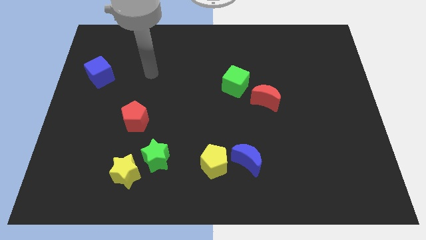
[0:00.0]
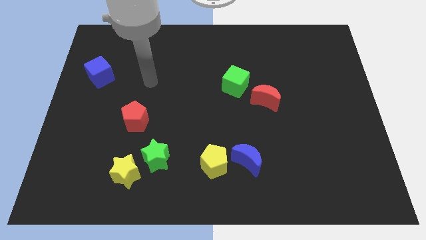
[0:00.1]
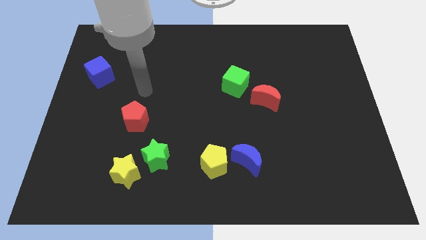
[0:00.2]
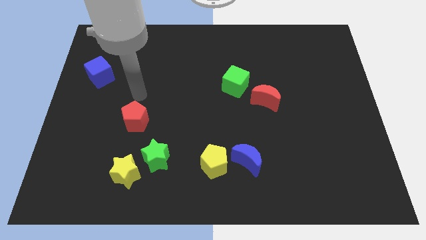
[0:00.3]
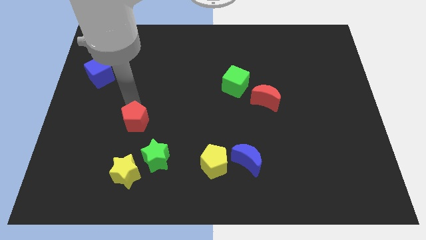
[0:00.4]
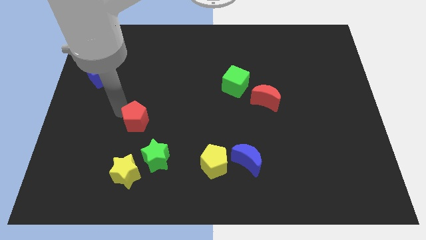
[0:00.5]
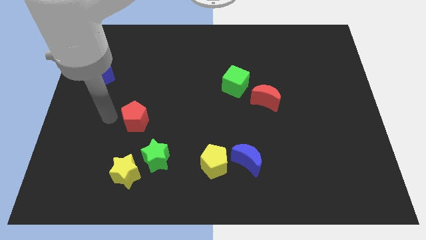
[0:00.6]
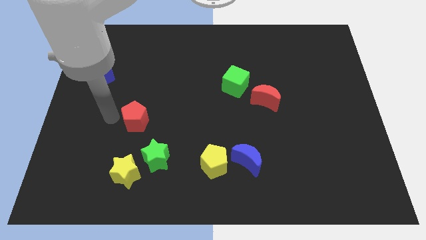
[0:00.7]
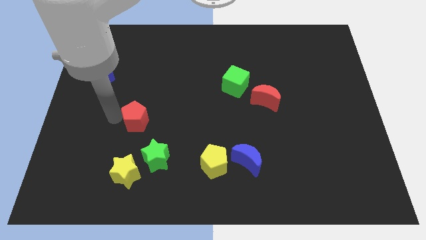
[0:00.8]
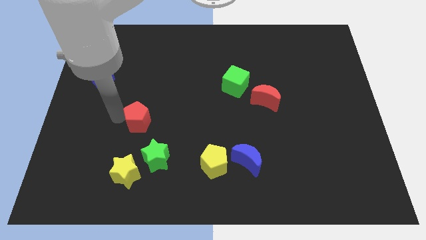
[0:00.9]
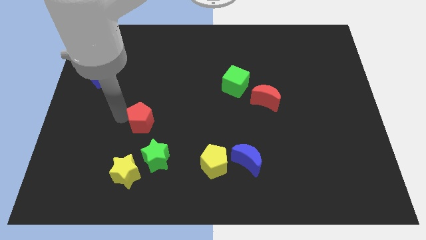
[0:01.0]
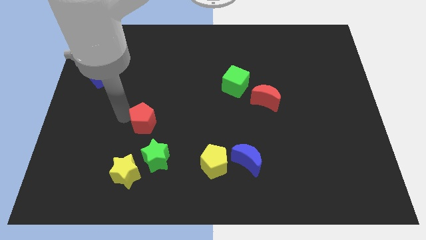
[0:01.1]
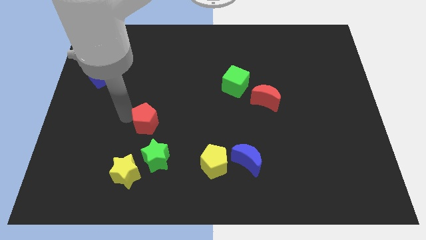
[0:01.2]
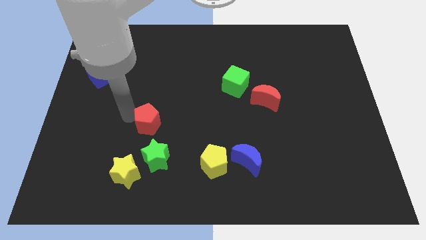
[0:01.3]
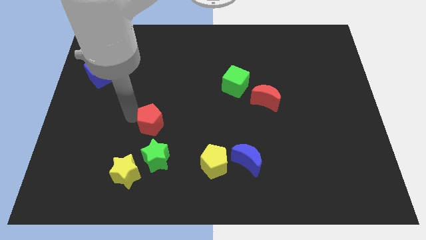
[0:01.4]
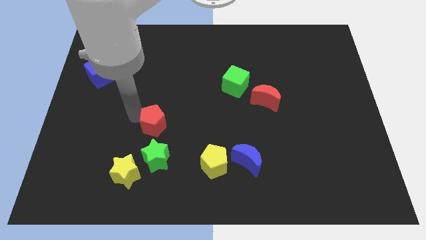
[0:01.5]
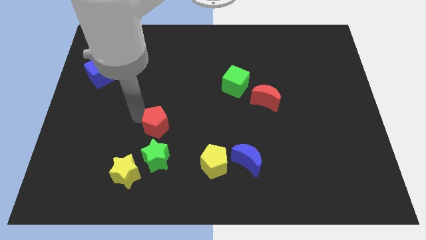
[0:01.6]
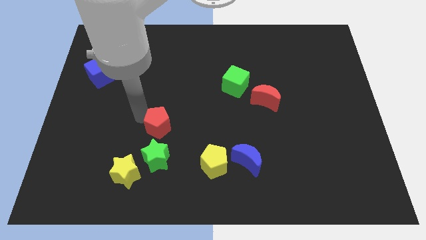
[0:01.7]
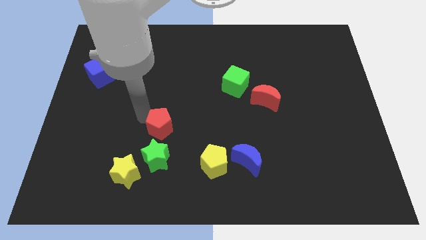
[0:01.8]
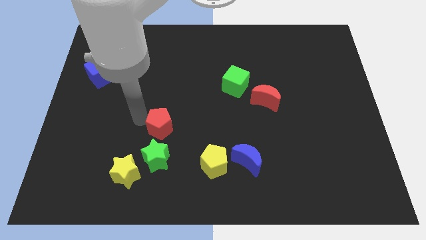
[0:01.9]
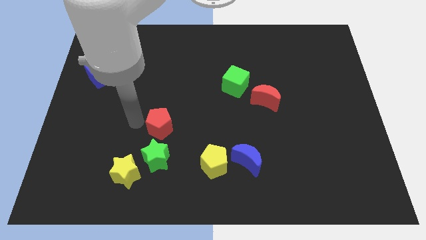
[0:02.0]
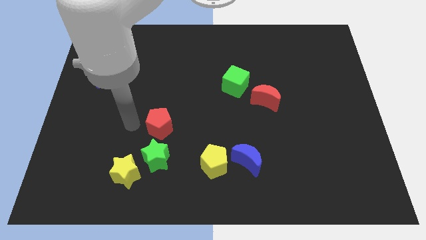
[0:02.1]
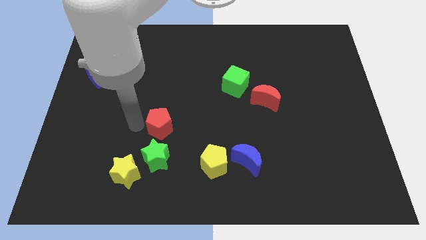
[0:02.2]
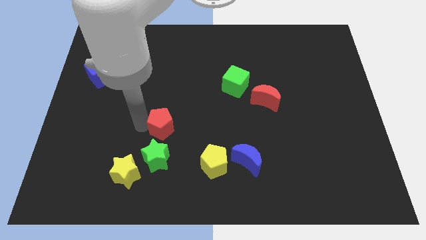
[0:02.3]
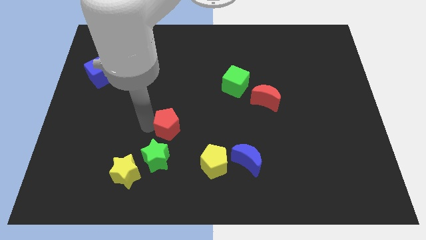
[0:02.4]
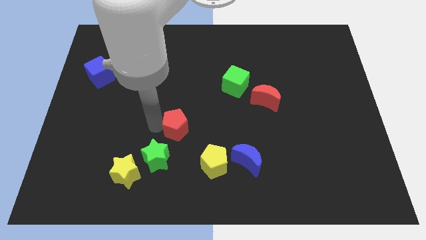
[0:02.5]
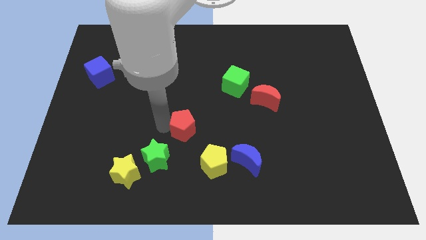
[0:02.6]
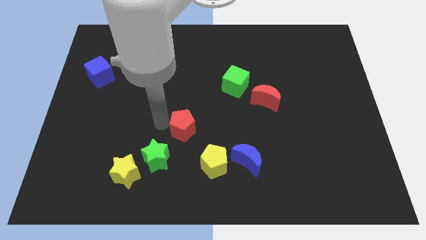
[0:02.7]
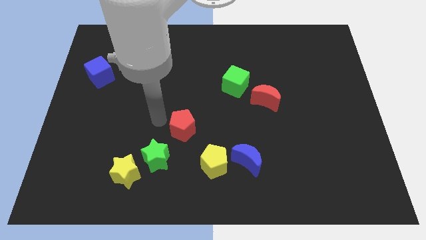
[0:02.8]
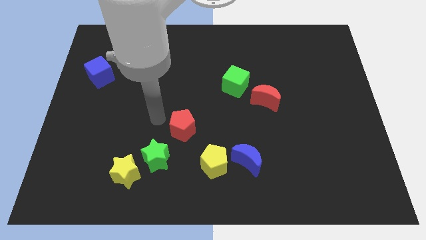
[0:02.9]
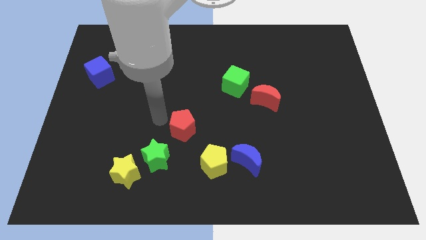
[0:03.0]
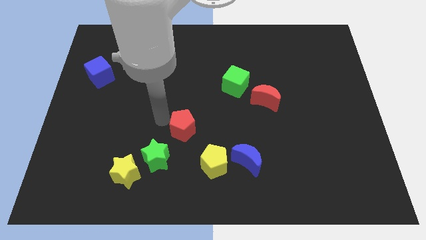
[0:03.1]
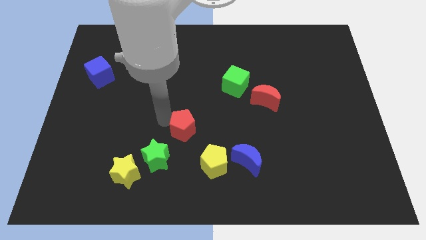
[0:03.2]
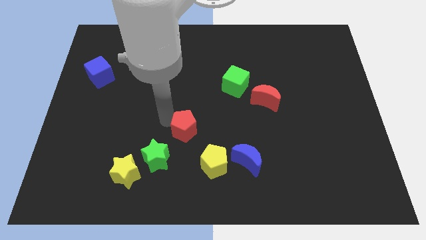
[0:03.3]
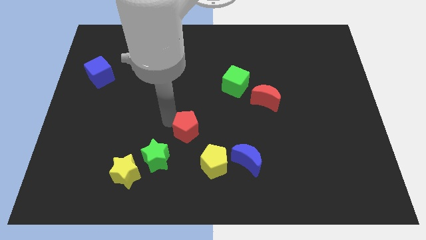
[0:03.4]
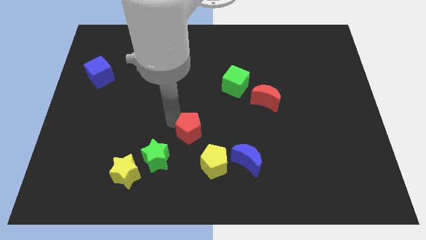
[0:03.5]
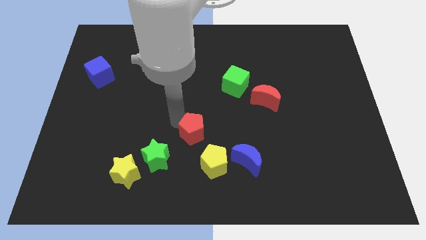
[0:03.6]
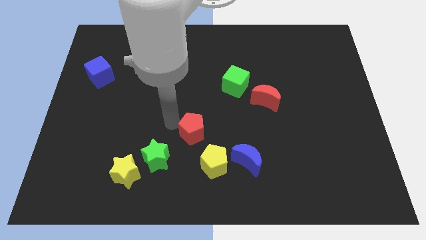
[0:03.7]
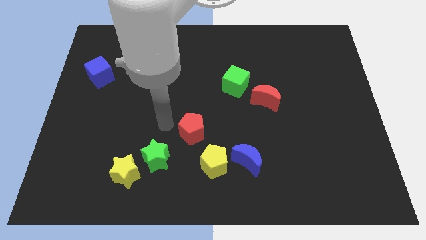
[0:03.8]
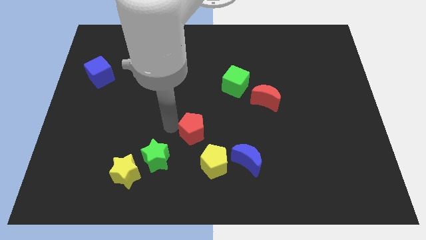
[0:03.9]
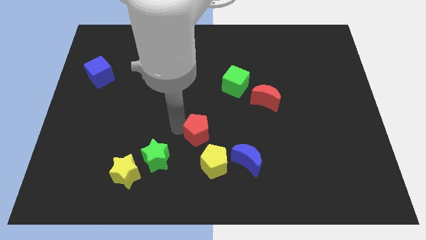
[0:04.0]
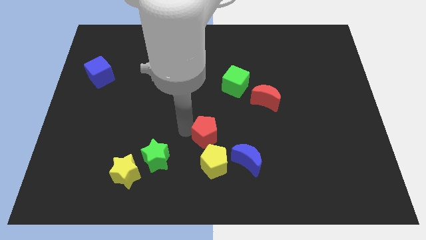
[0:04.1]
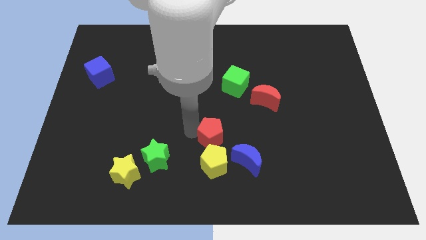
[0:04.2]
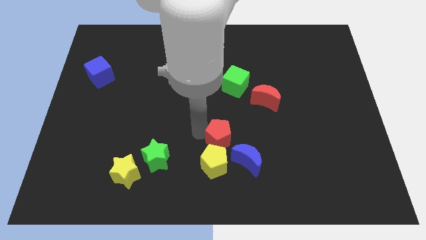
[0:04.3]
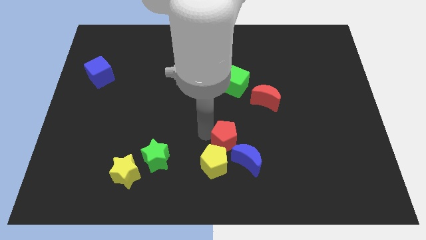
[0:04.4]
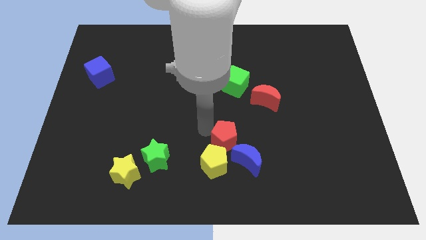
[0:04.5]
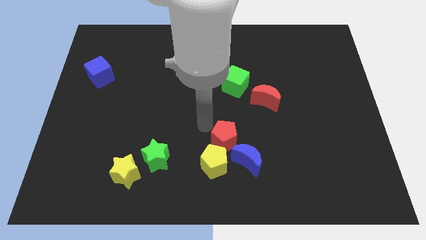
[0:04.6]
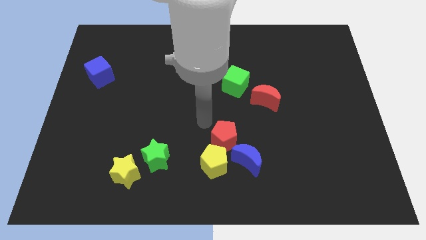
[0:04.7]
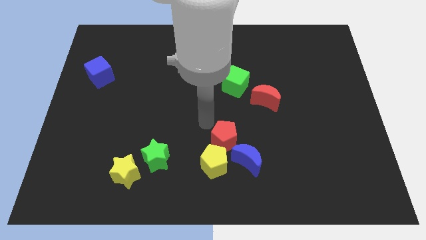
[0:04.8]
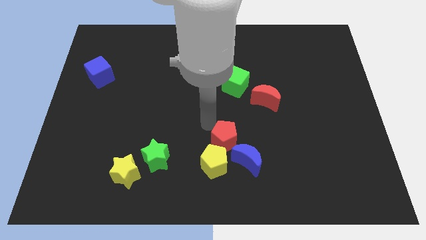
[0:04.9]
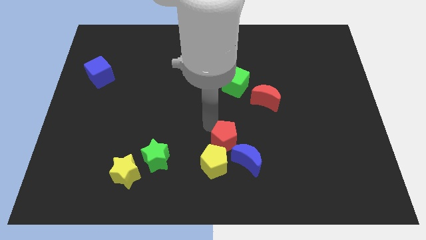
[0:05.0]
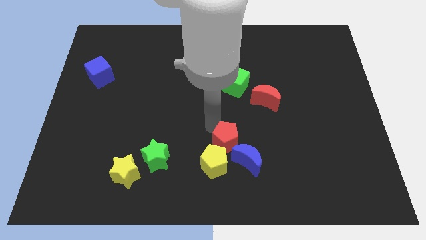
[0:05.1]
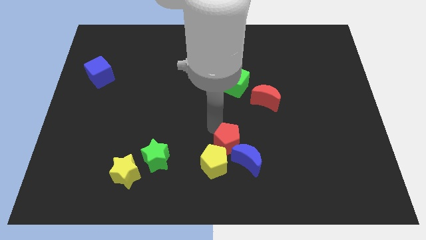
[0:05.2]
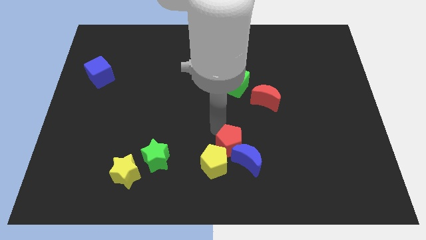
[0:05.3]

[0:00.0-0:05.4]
slide the red pentagon to the blue moon

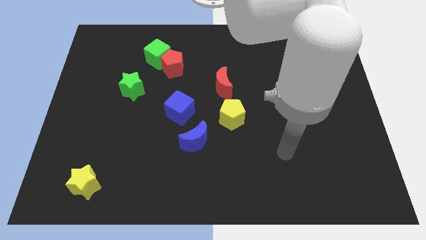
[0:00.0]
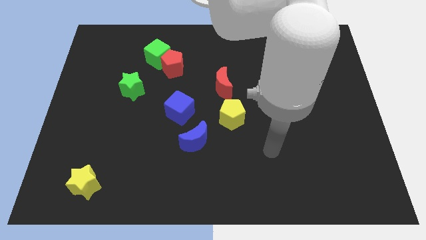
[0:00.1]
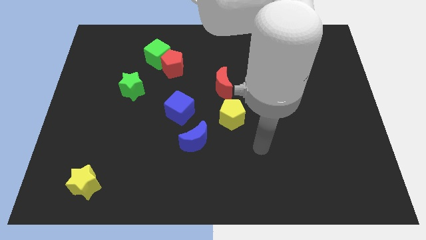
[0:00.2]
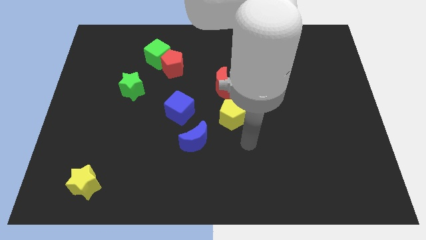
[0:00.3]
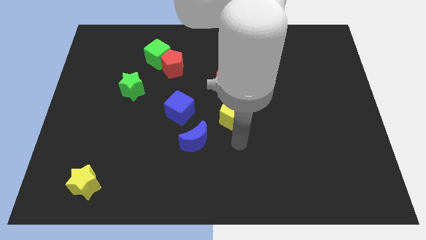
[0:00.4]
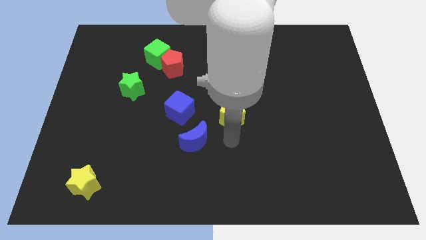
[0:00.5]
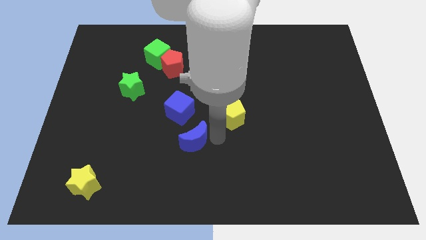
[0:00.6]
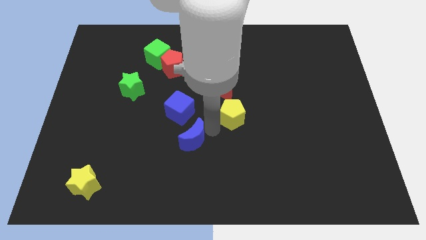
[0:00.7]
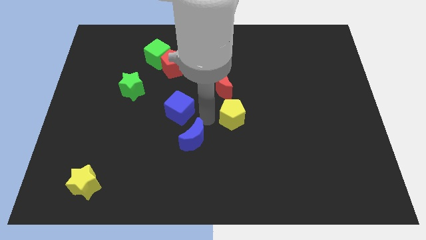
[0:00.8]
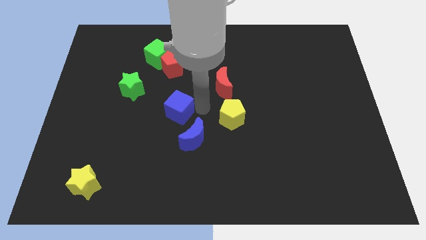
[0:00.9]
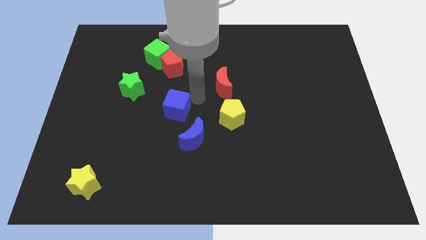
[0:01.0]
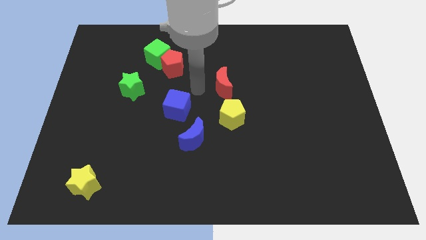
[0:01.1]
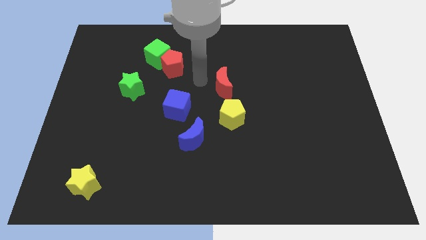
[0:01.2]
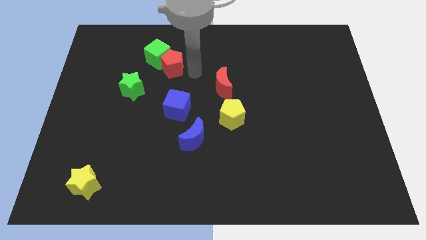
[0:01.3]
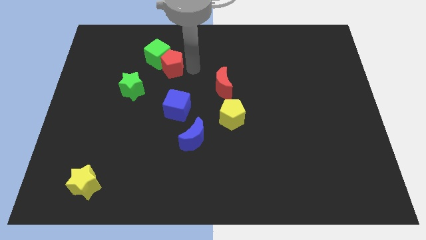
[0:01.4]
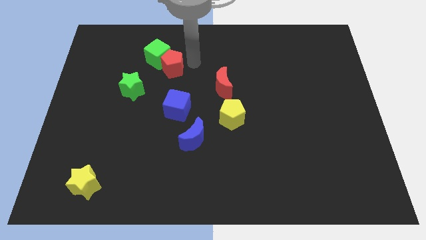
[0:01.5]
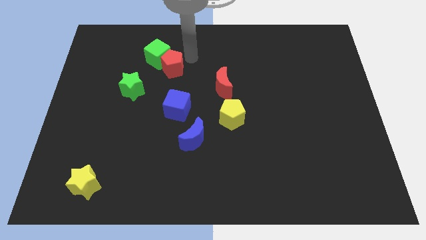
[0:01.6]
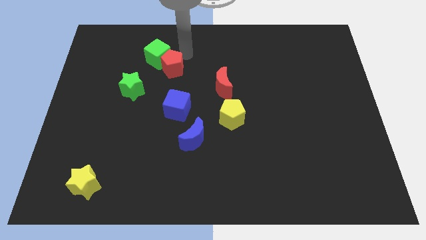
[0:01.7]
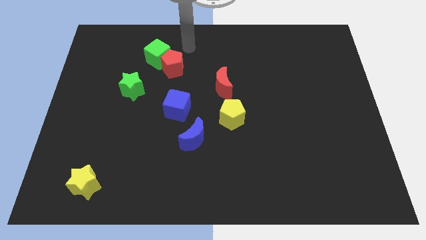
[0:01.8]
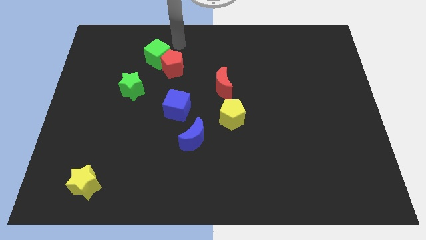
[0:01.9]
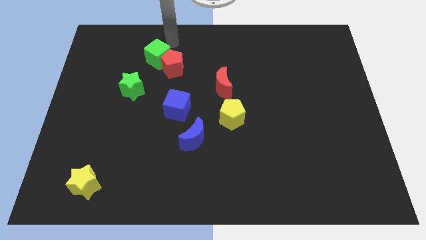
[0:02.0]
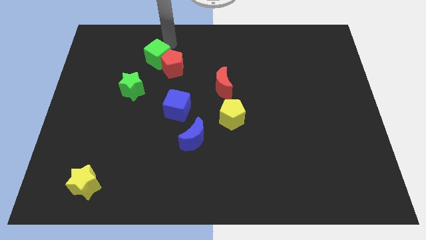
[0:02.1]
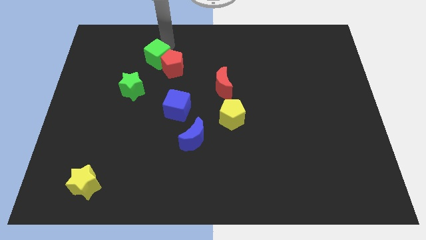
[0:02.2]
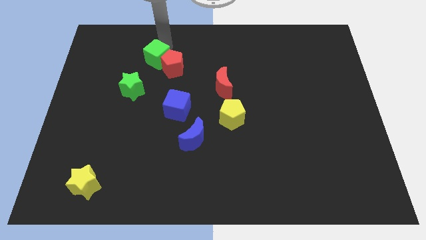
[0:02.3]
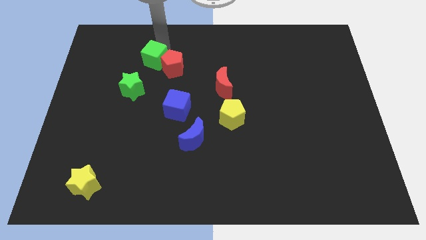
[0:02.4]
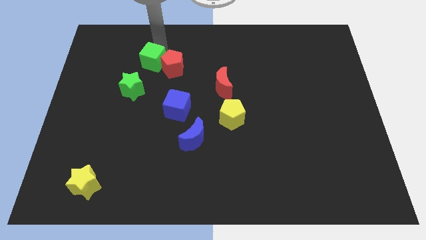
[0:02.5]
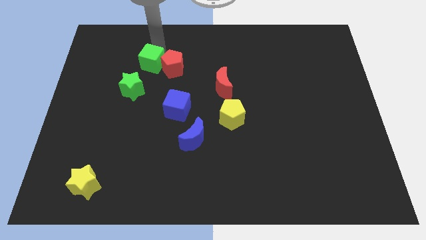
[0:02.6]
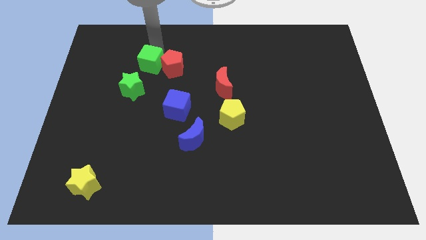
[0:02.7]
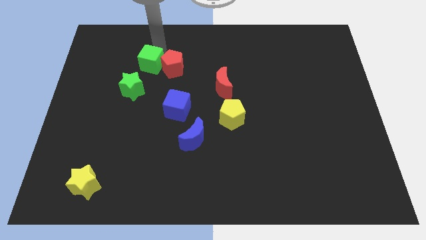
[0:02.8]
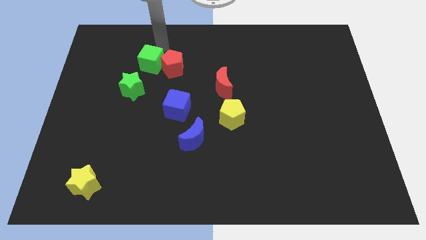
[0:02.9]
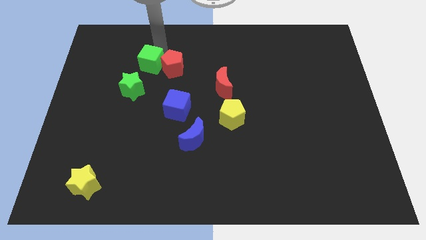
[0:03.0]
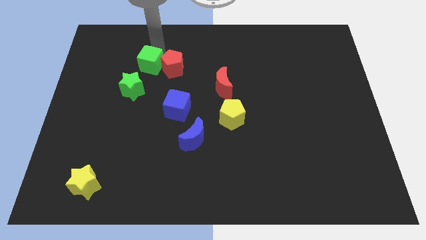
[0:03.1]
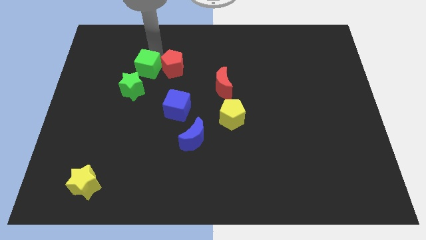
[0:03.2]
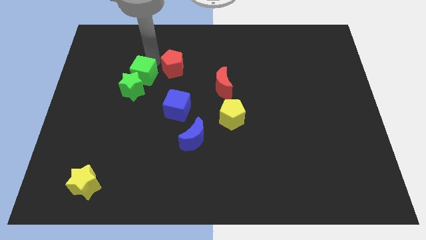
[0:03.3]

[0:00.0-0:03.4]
slide the green cube next to the green star
